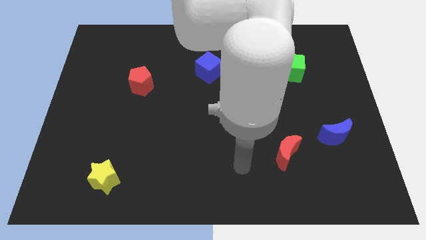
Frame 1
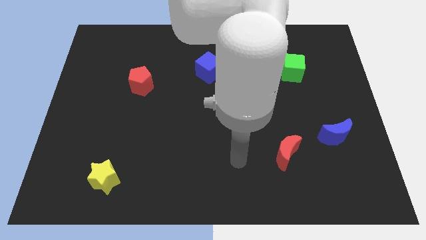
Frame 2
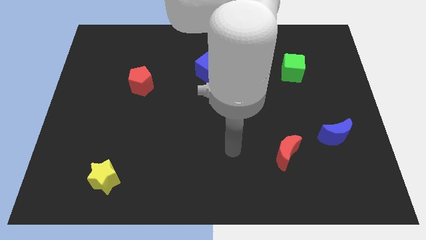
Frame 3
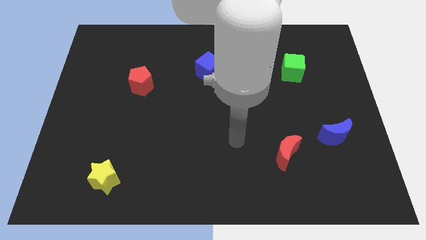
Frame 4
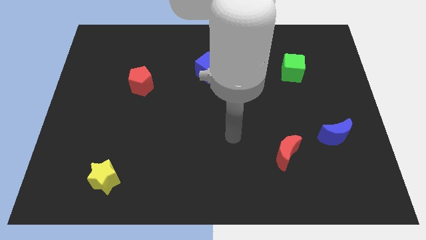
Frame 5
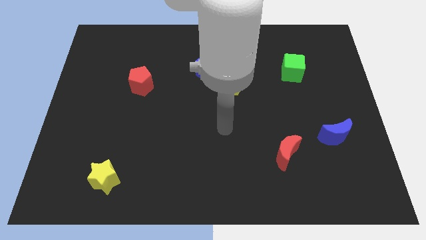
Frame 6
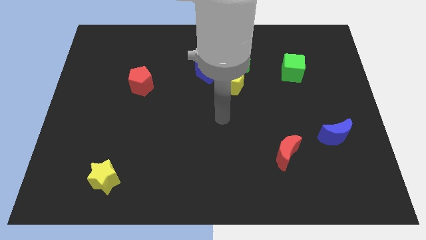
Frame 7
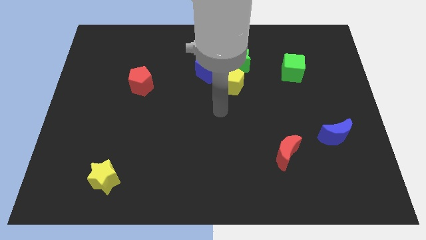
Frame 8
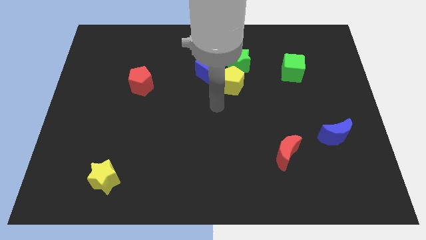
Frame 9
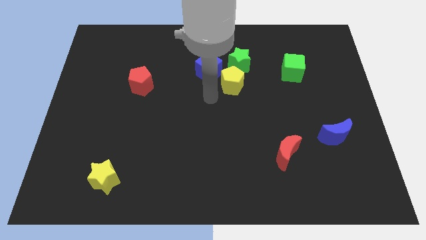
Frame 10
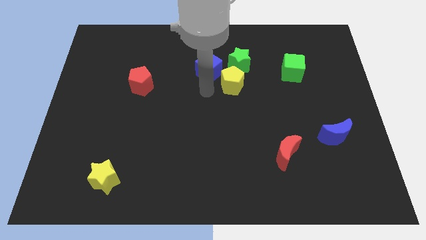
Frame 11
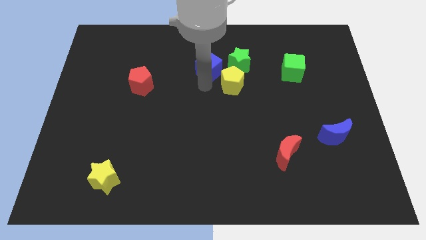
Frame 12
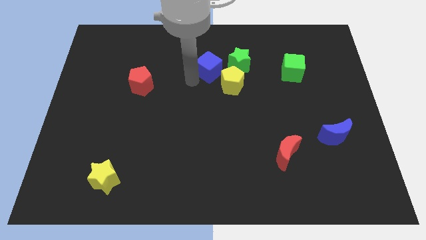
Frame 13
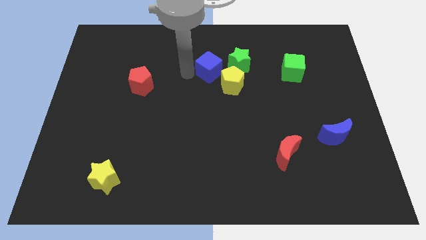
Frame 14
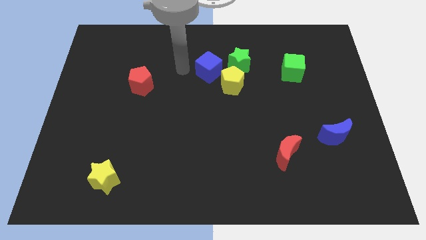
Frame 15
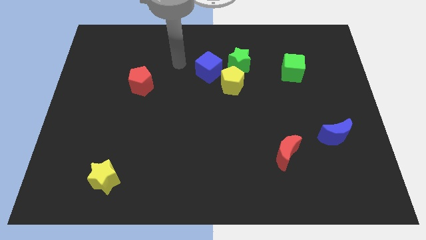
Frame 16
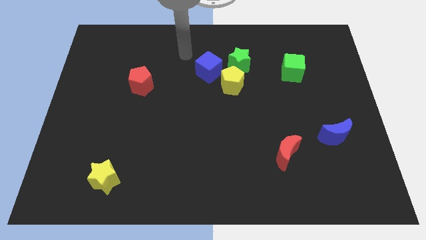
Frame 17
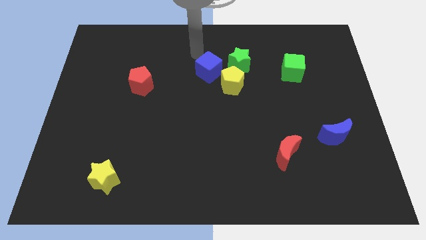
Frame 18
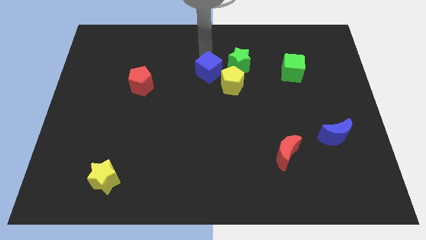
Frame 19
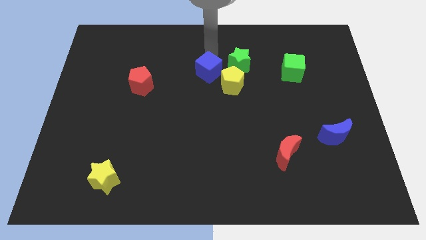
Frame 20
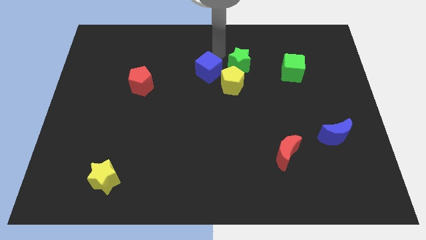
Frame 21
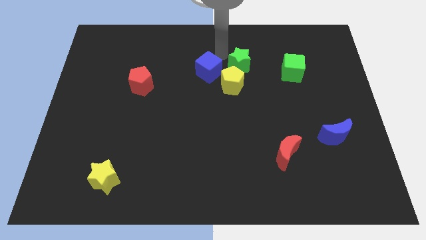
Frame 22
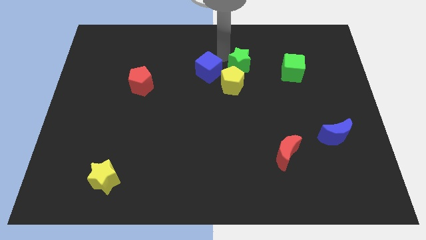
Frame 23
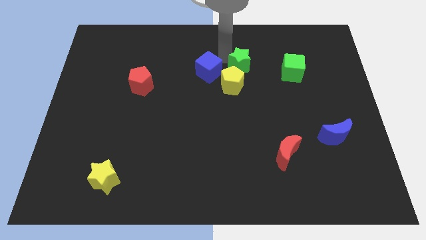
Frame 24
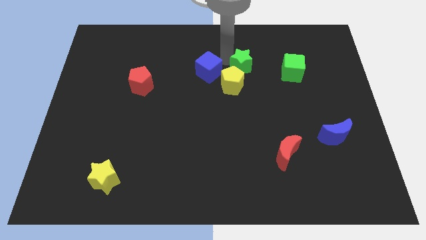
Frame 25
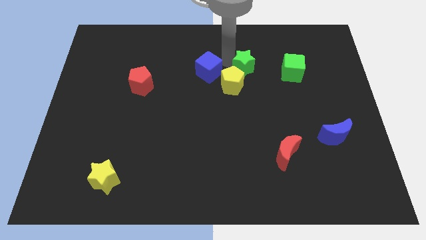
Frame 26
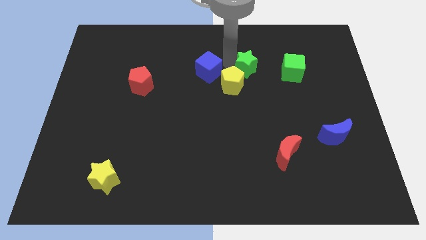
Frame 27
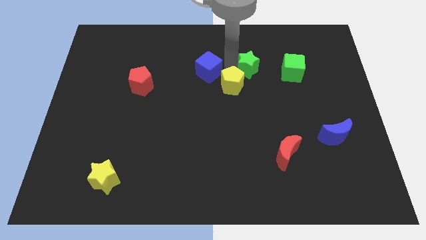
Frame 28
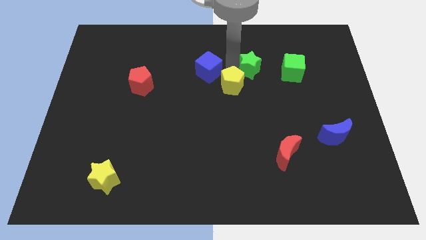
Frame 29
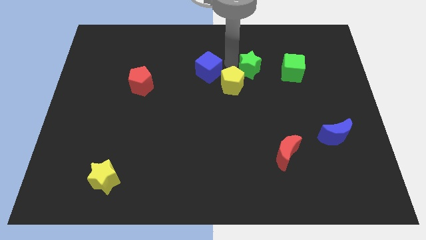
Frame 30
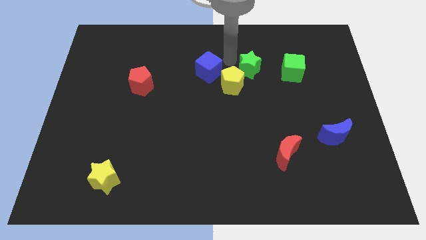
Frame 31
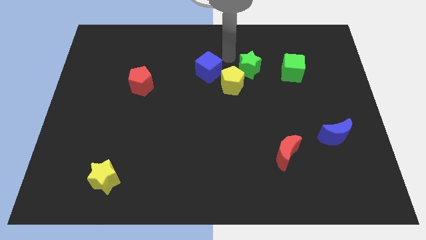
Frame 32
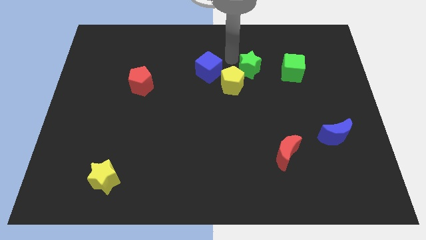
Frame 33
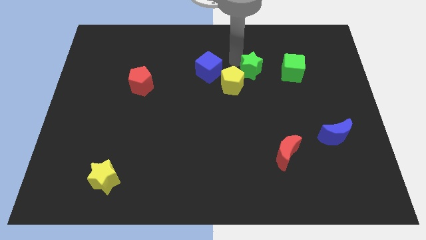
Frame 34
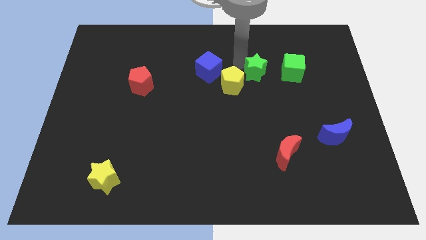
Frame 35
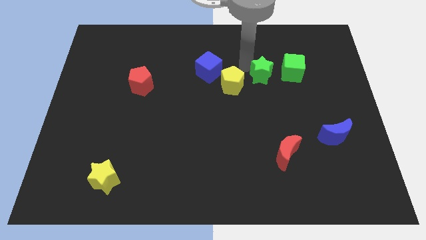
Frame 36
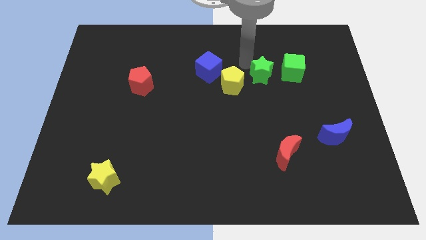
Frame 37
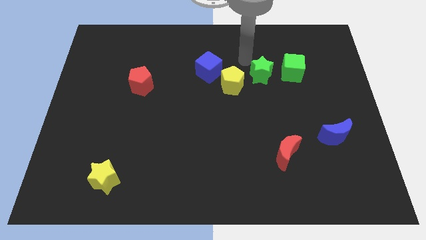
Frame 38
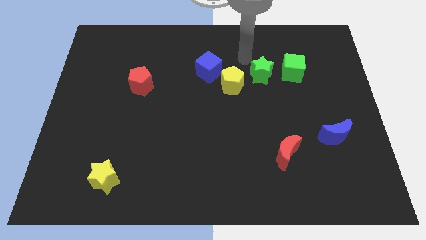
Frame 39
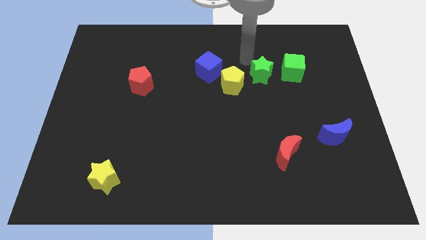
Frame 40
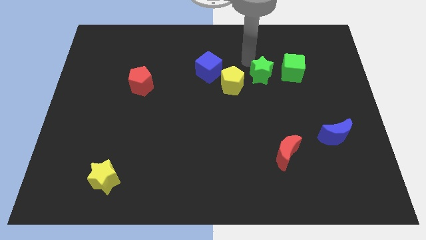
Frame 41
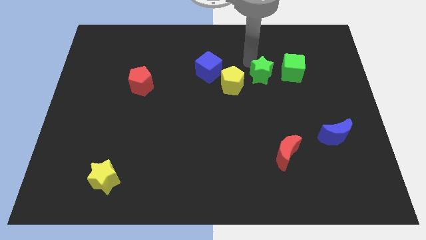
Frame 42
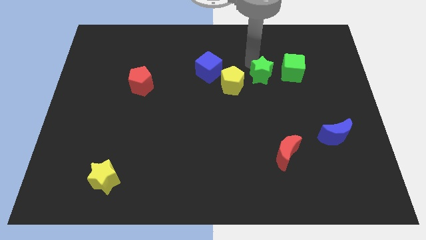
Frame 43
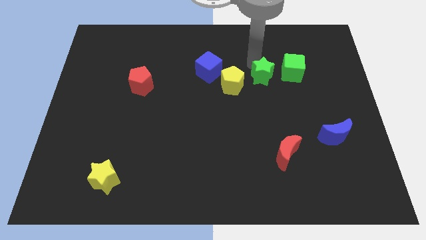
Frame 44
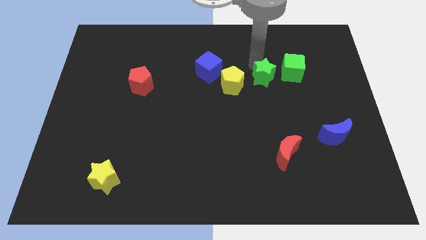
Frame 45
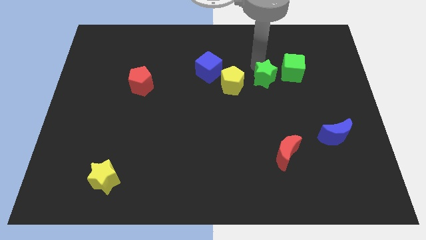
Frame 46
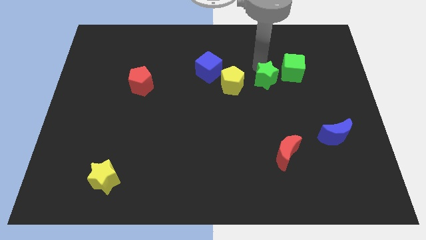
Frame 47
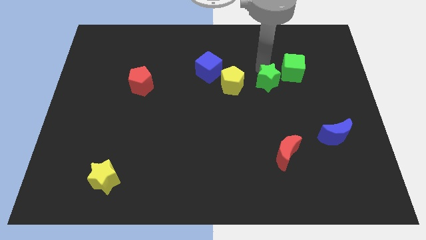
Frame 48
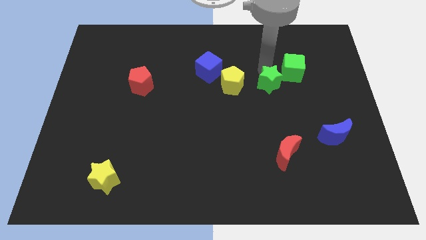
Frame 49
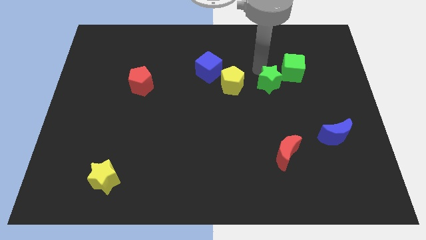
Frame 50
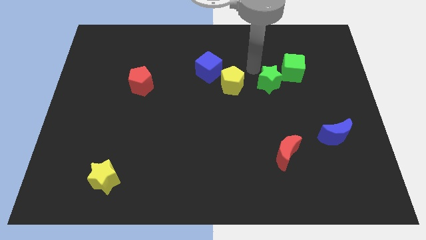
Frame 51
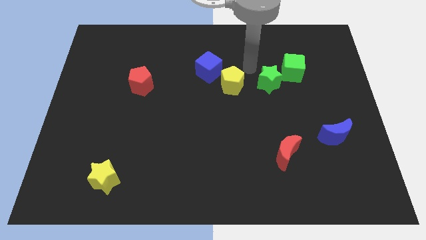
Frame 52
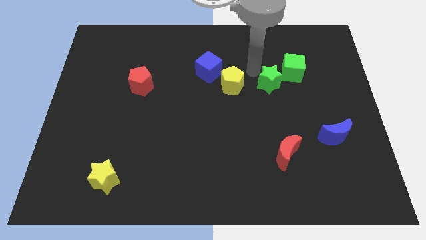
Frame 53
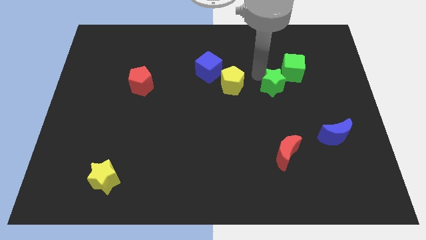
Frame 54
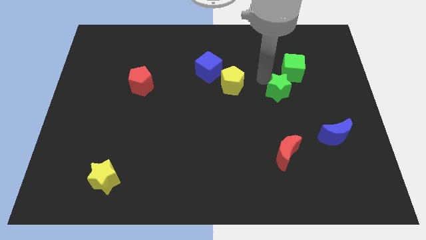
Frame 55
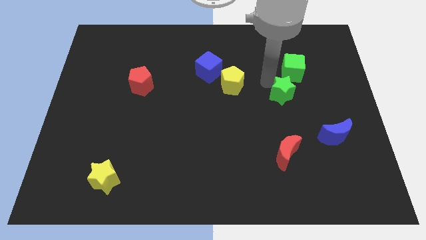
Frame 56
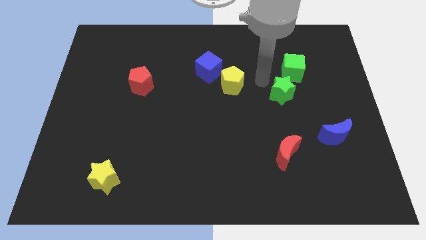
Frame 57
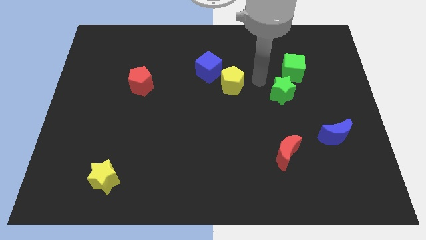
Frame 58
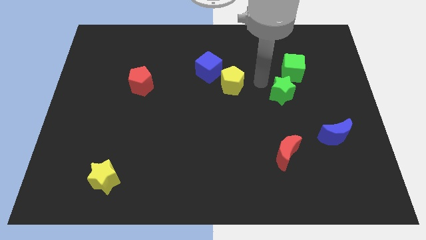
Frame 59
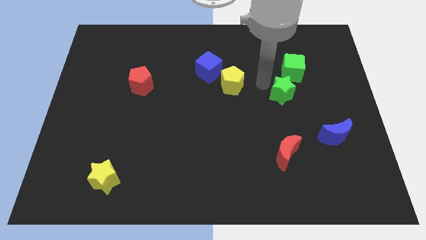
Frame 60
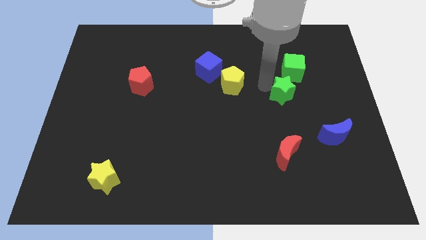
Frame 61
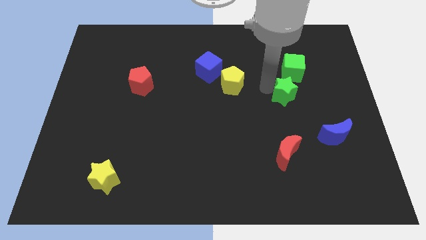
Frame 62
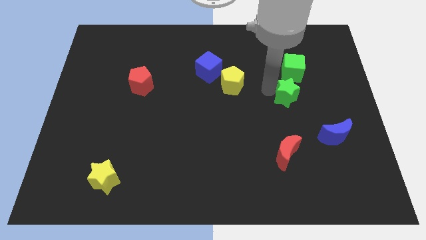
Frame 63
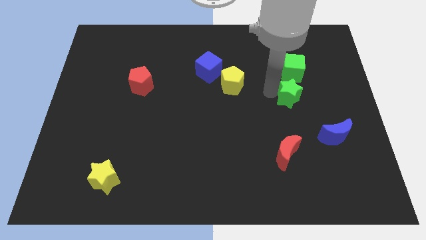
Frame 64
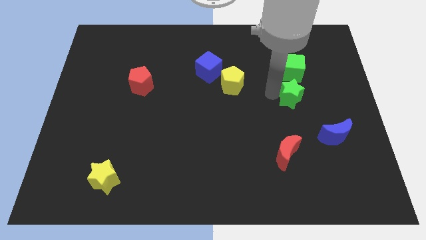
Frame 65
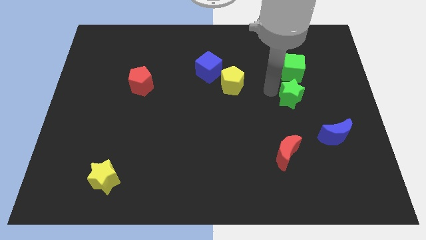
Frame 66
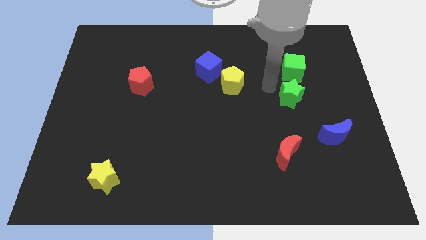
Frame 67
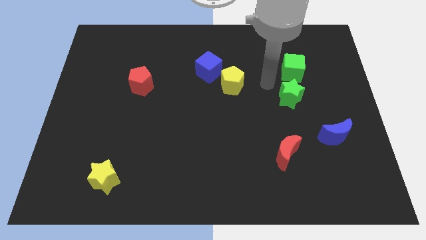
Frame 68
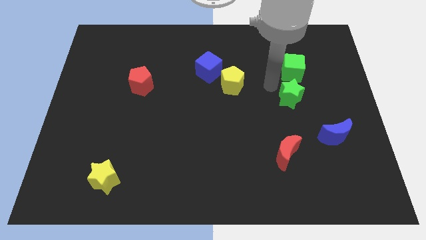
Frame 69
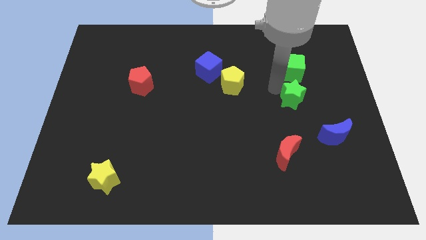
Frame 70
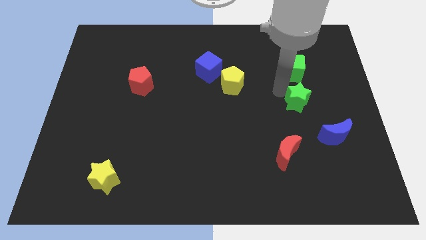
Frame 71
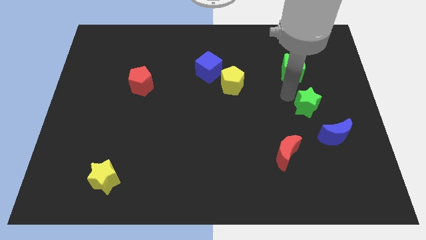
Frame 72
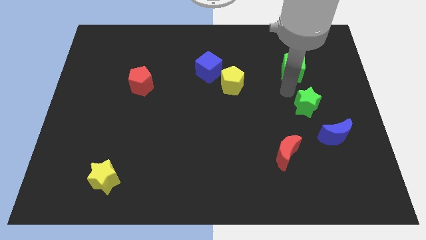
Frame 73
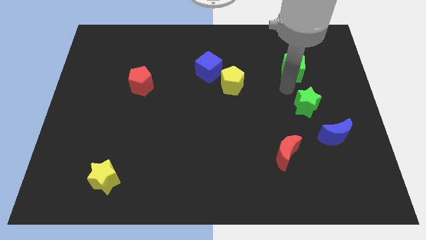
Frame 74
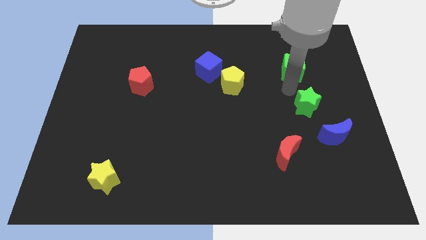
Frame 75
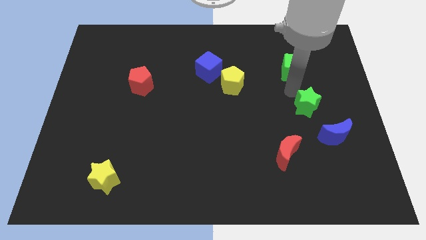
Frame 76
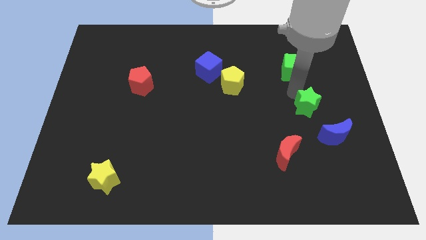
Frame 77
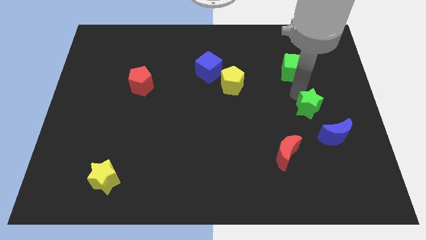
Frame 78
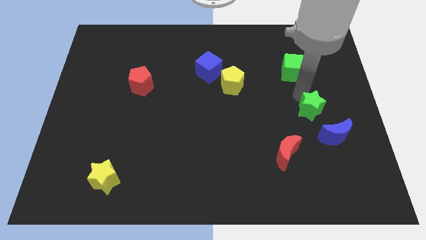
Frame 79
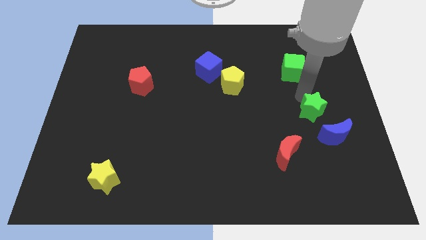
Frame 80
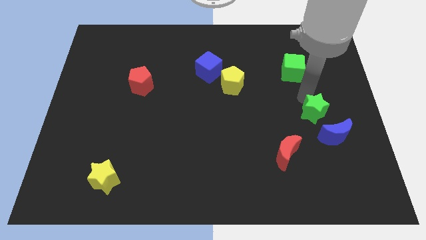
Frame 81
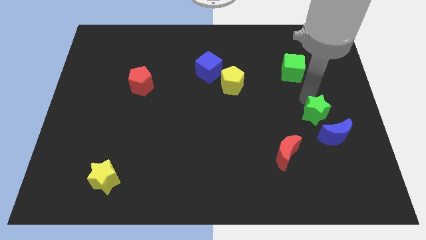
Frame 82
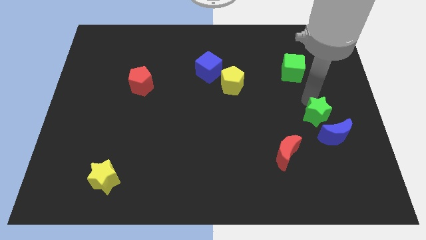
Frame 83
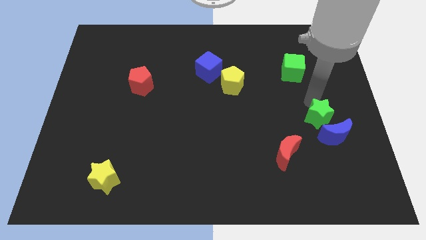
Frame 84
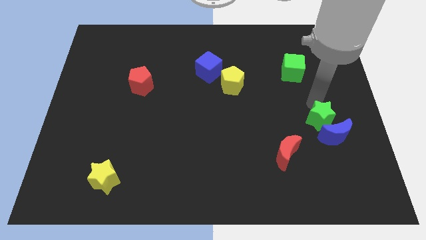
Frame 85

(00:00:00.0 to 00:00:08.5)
slide the green star next to the blue moon
